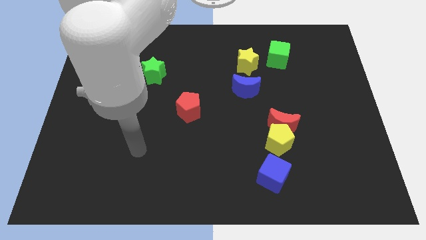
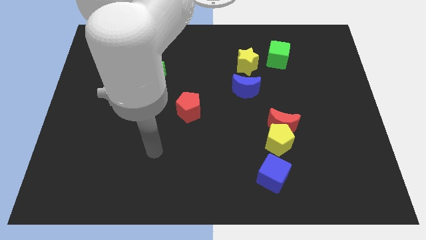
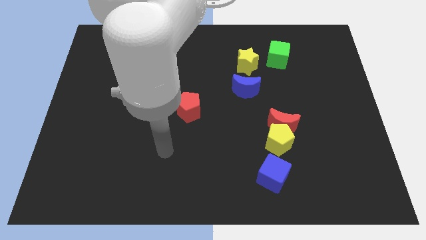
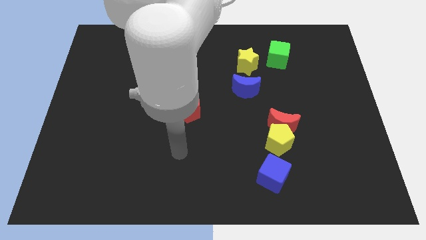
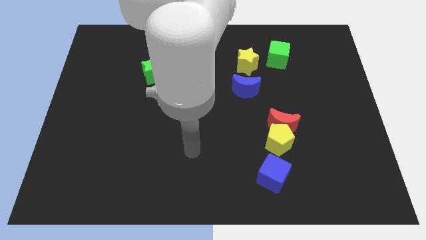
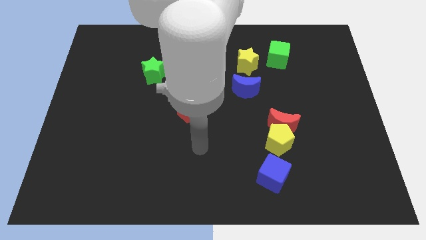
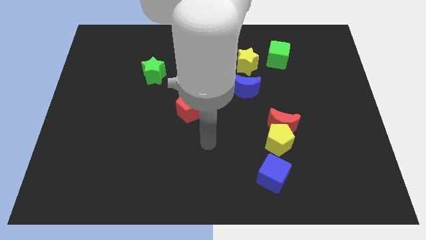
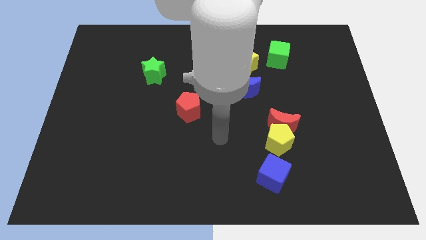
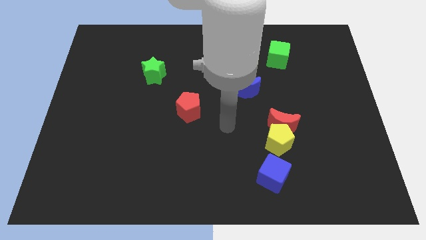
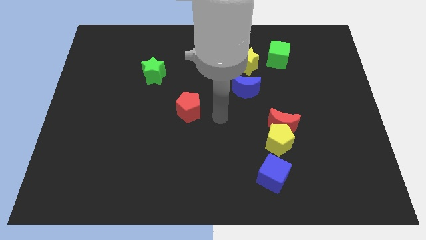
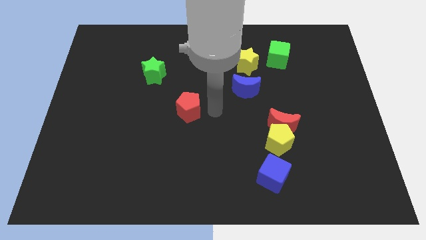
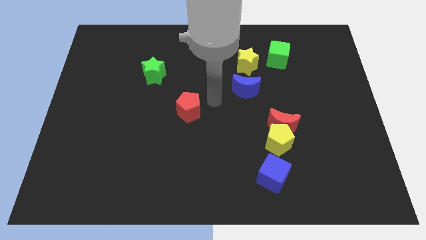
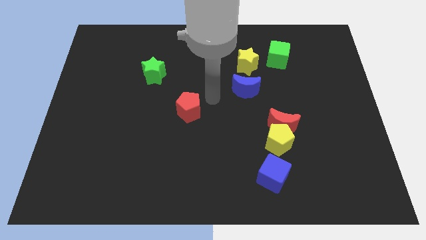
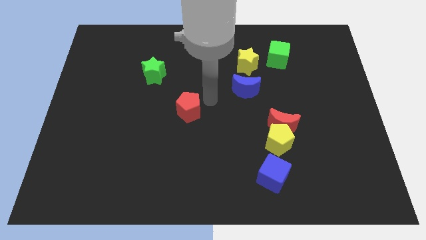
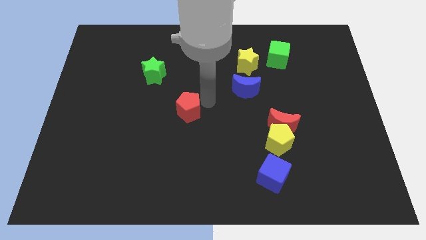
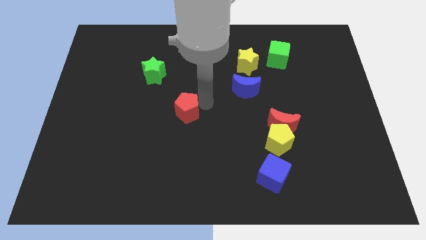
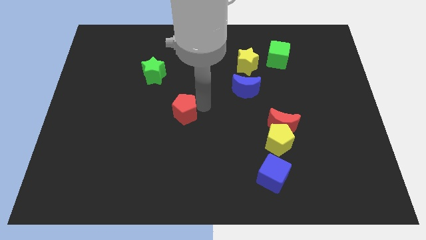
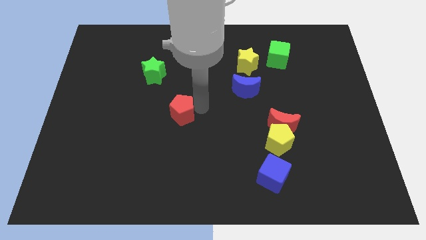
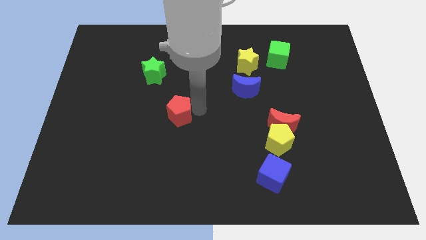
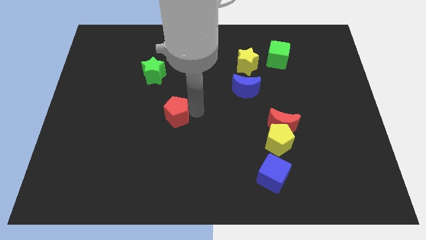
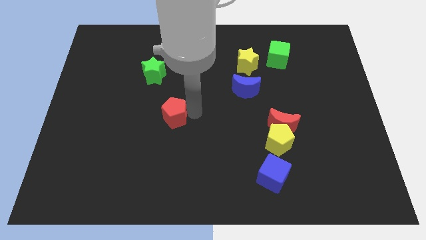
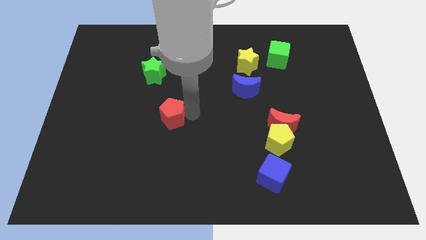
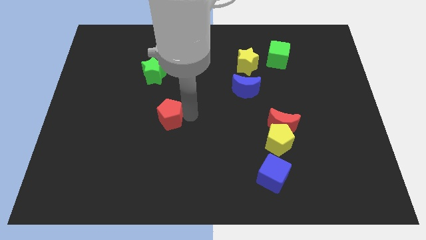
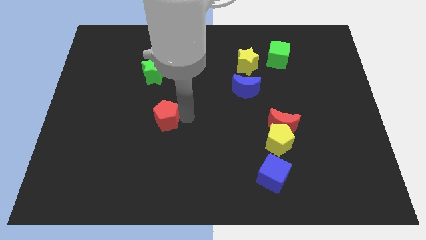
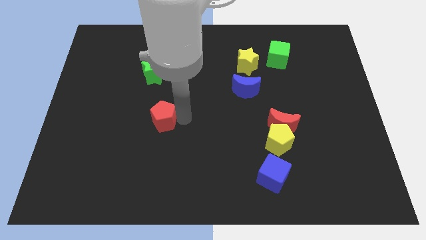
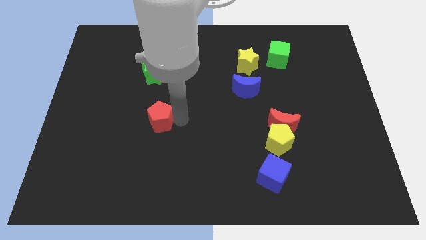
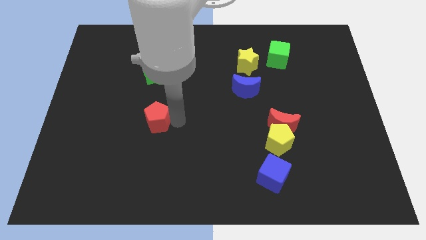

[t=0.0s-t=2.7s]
slightly move the red pentagon diagonally down and left

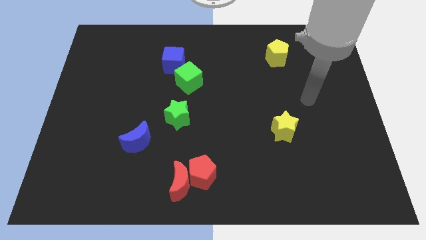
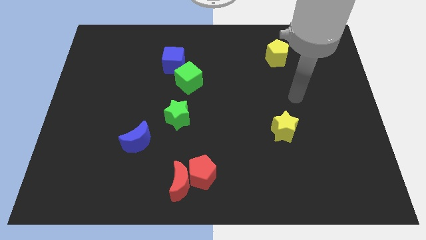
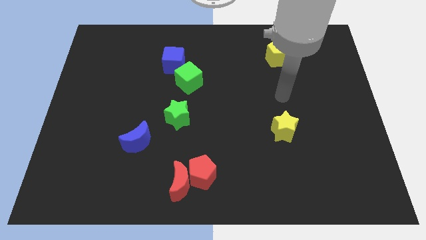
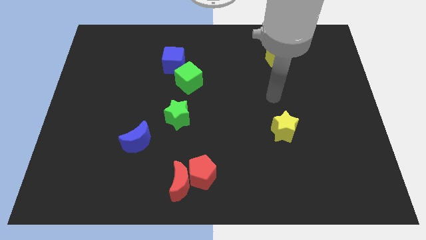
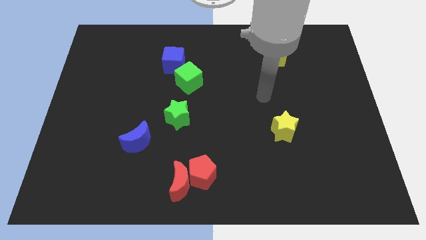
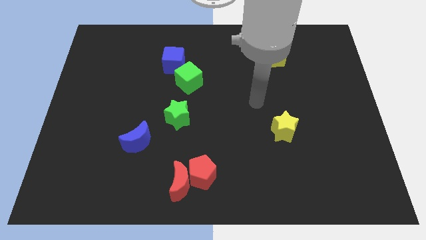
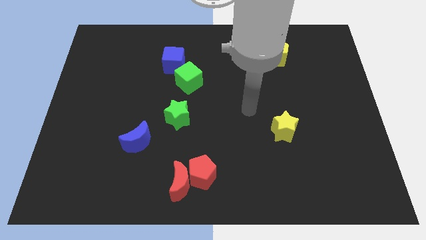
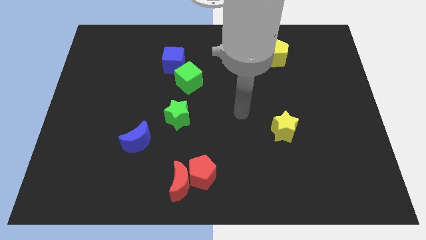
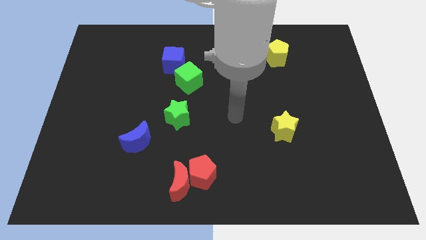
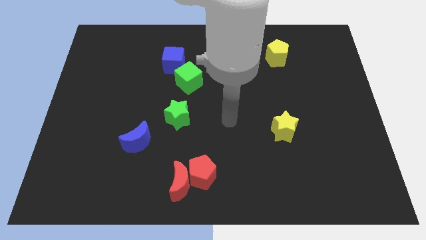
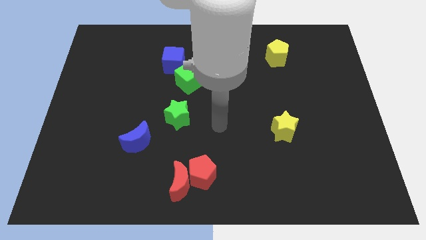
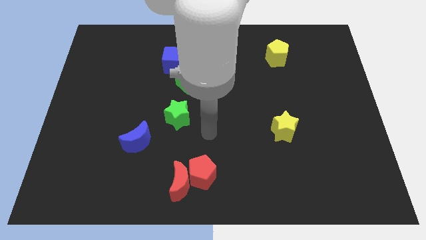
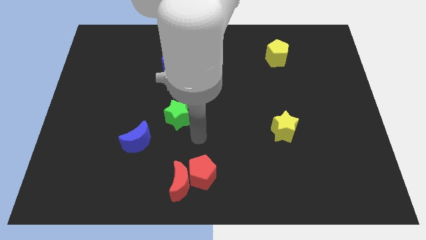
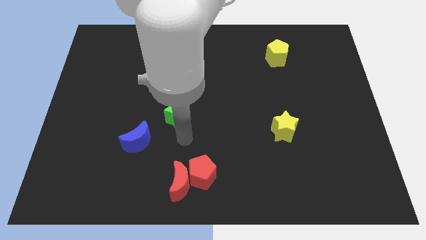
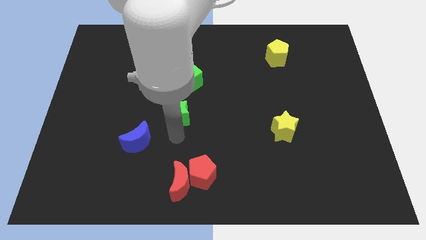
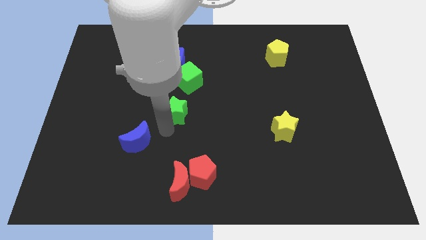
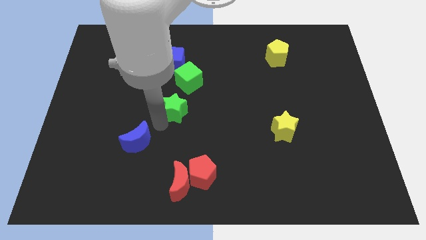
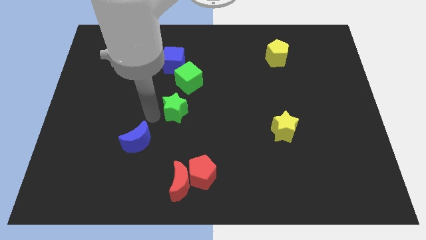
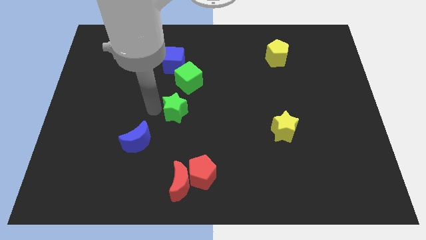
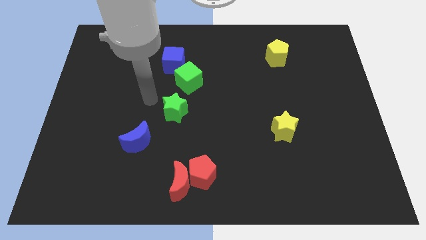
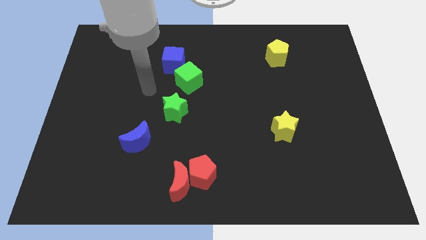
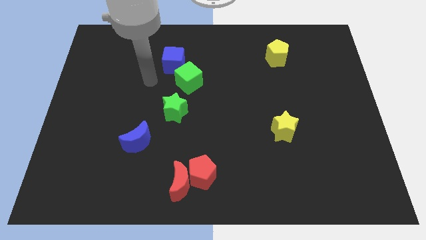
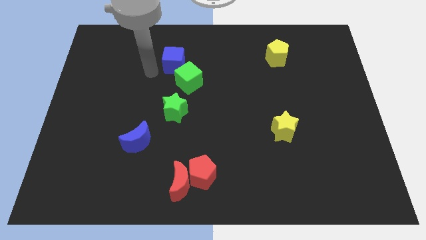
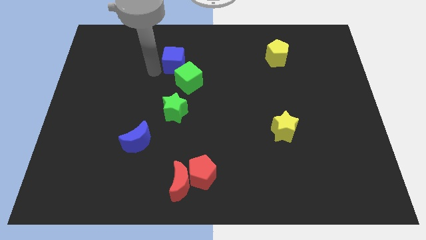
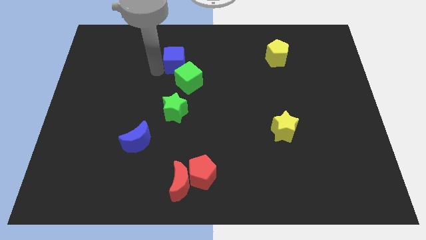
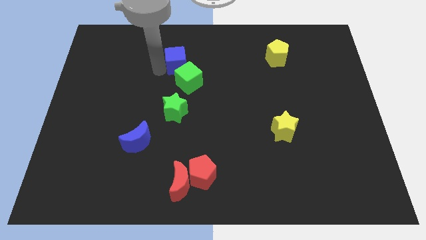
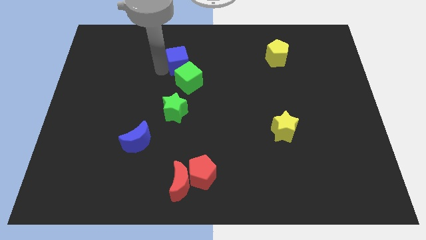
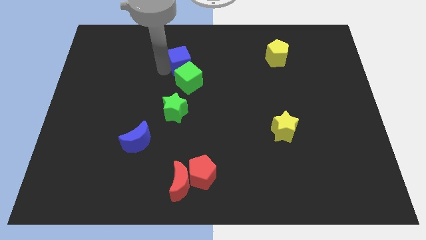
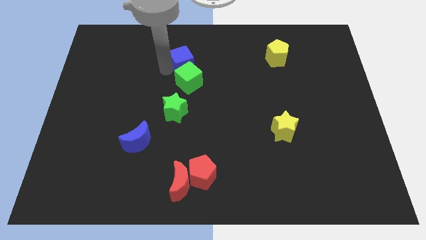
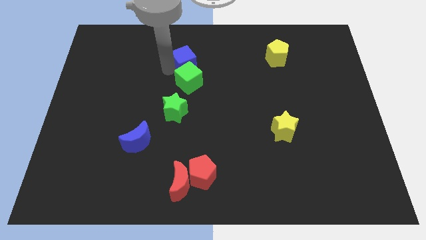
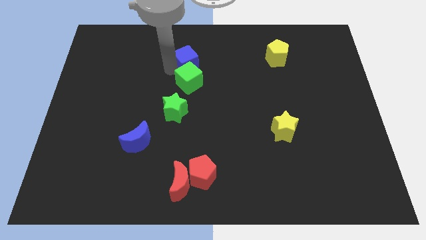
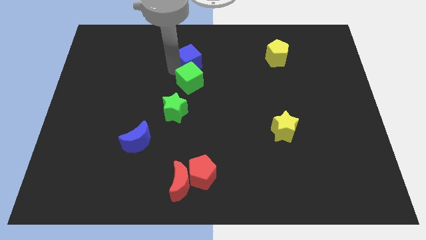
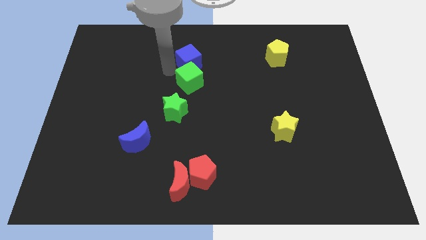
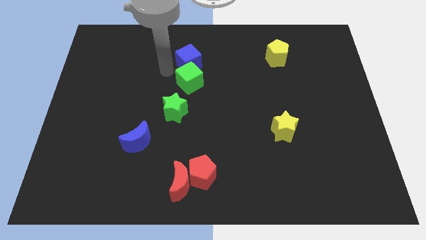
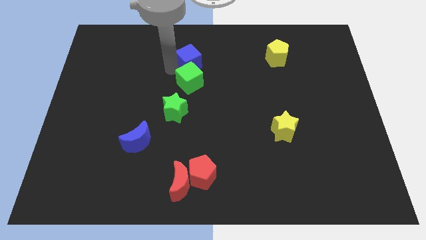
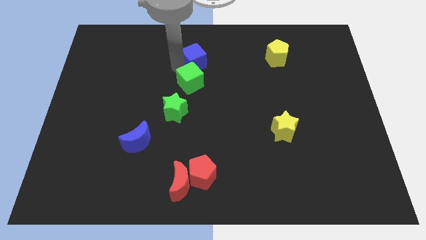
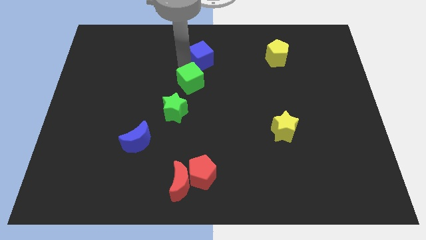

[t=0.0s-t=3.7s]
slide the blue cube to the right a little bit

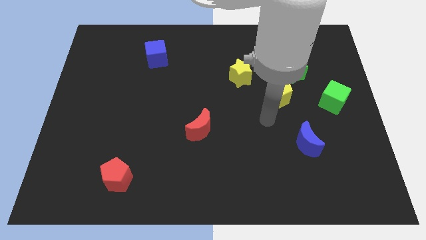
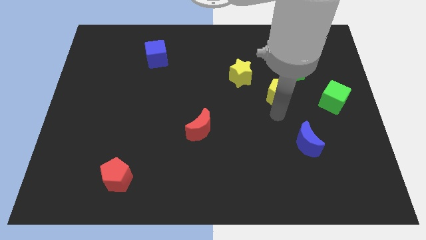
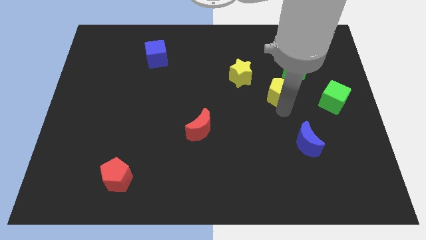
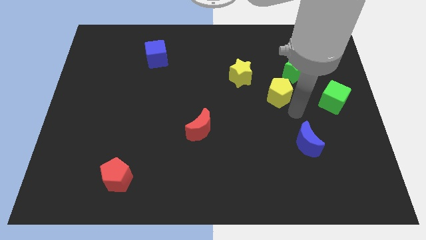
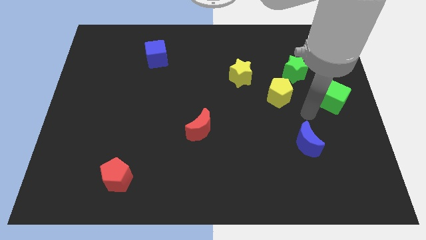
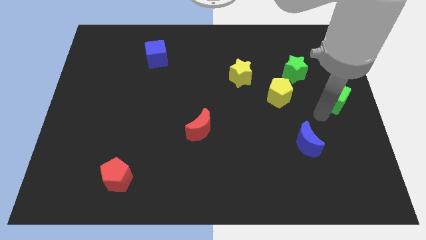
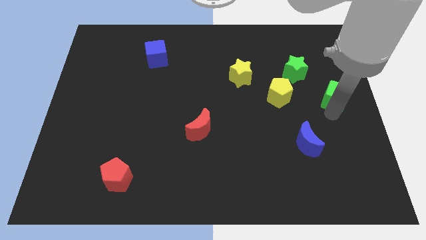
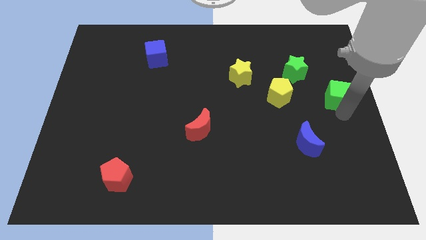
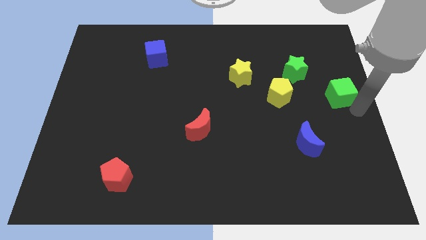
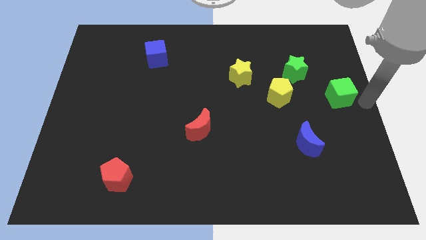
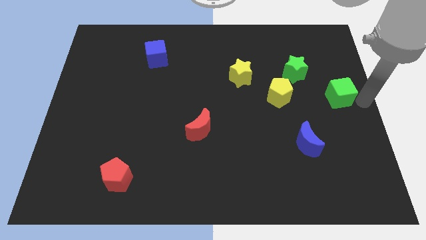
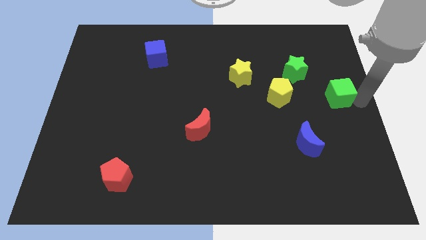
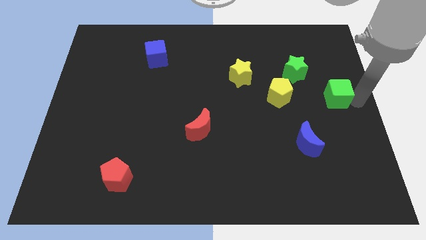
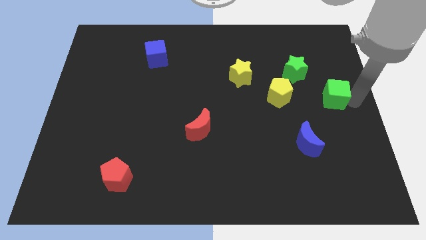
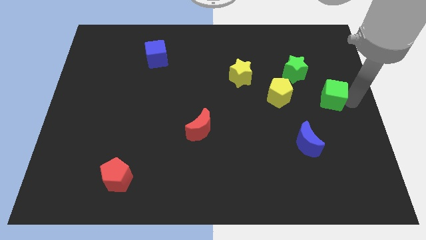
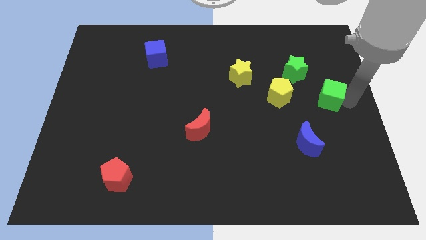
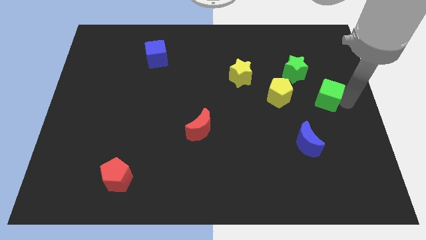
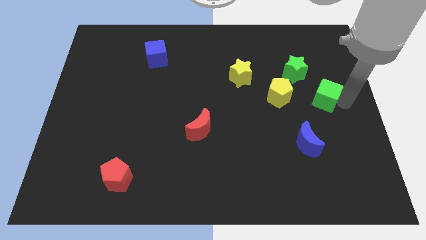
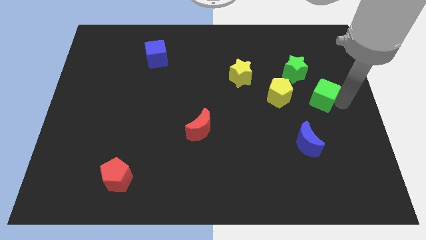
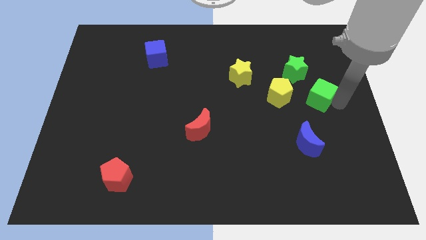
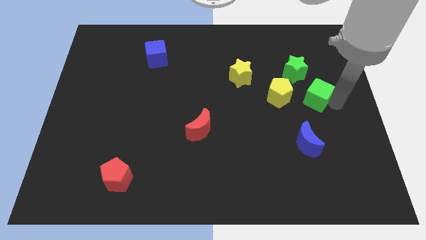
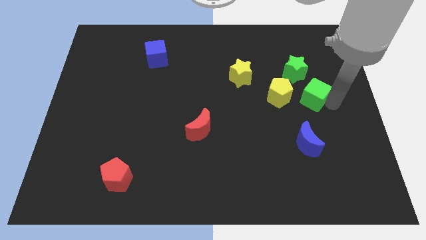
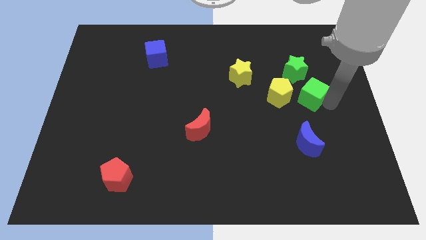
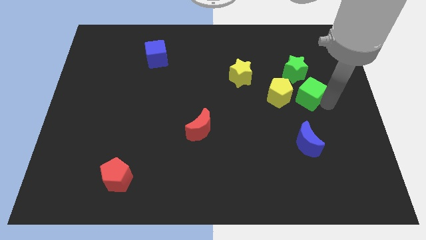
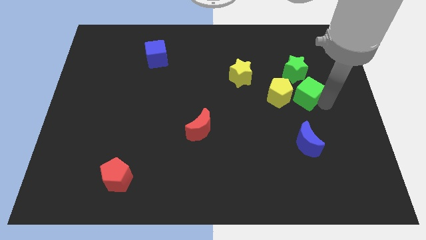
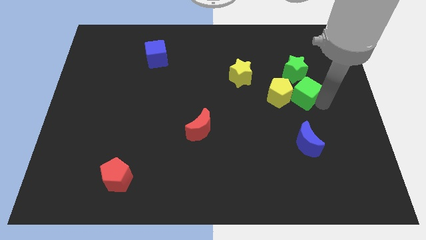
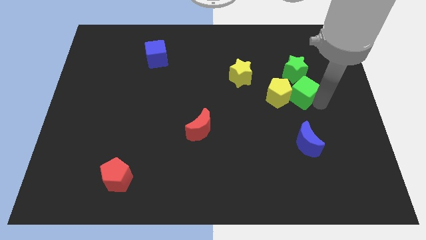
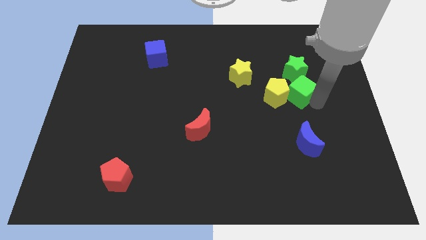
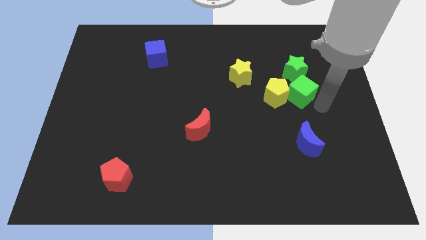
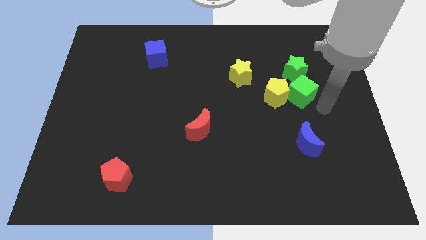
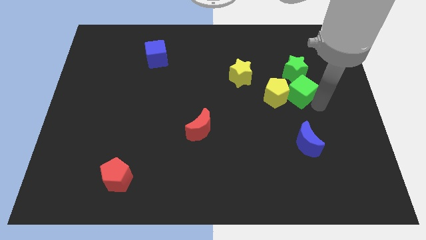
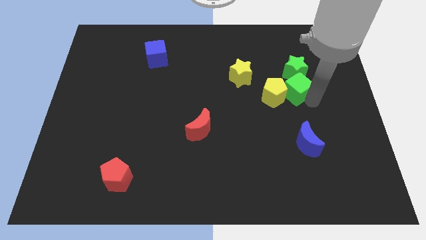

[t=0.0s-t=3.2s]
move the green cube up and to the left slightly
